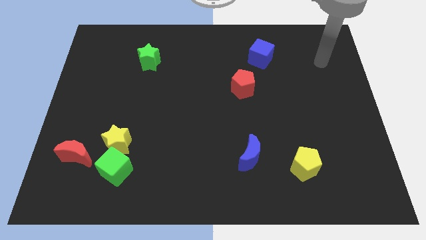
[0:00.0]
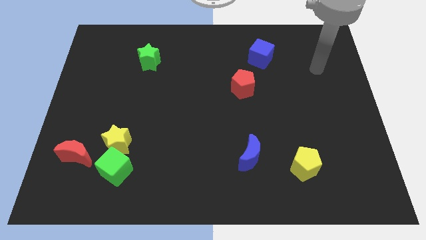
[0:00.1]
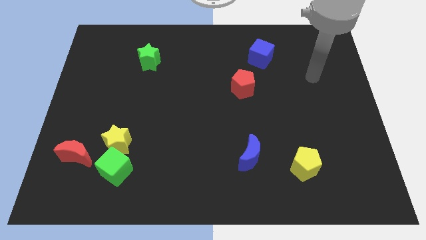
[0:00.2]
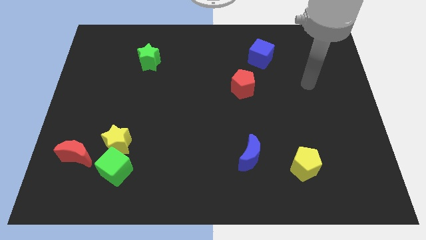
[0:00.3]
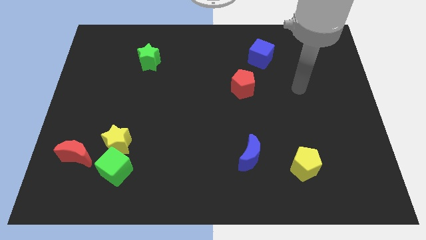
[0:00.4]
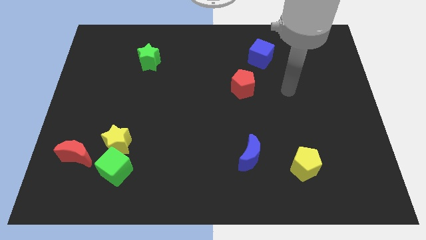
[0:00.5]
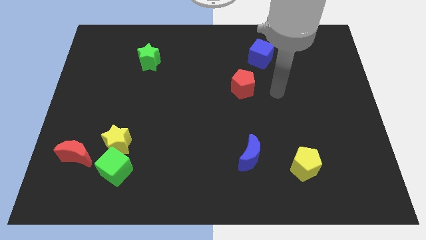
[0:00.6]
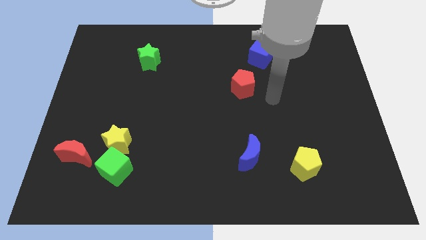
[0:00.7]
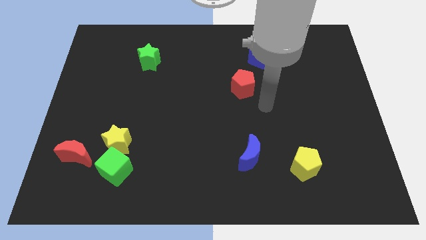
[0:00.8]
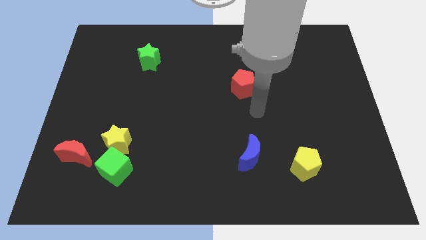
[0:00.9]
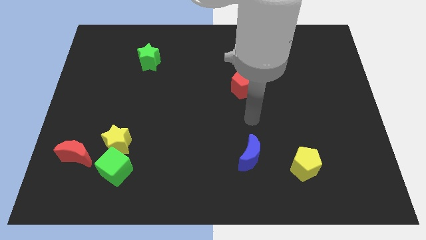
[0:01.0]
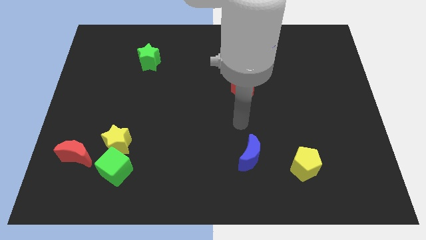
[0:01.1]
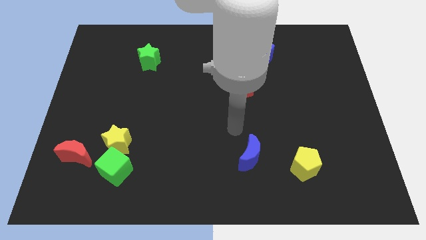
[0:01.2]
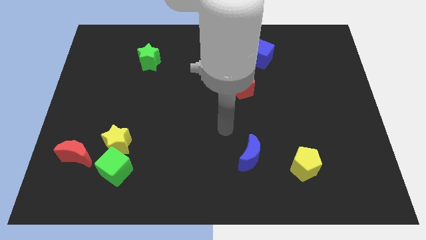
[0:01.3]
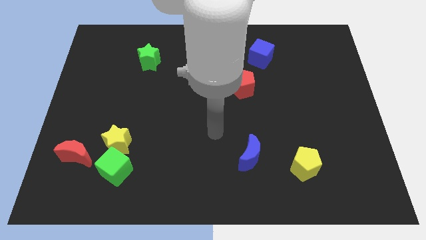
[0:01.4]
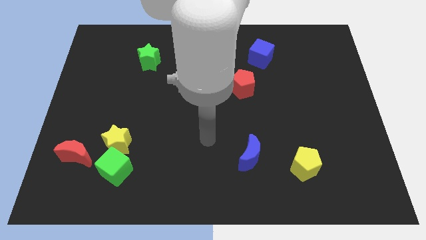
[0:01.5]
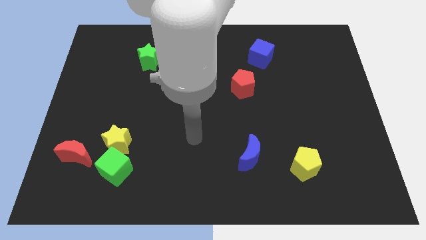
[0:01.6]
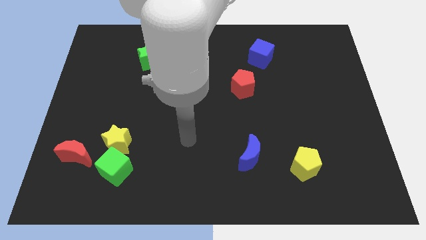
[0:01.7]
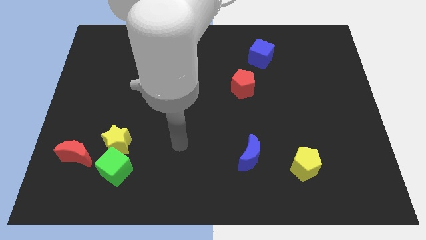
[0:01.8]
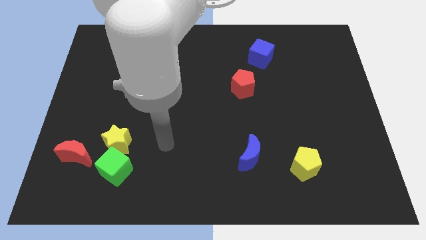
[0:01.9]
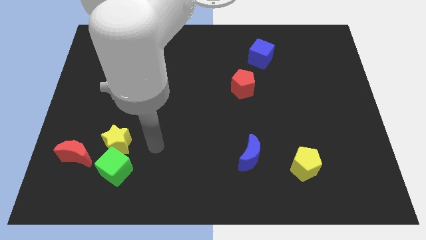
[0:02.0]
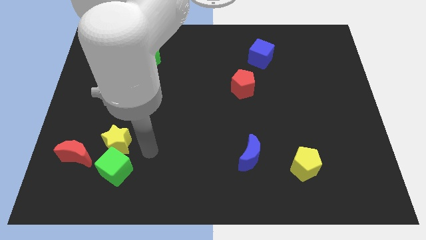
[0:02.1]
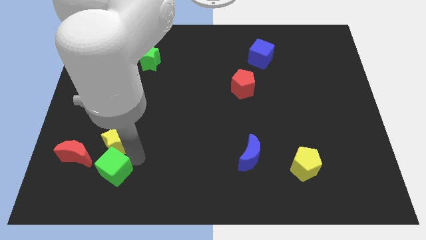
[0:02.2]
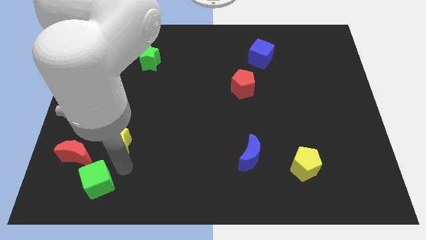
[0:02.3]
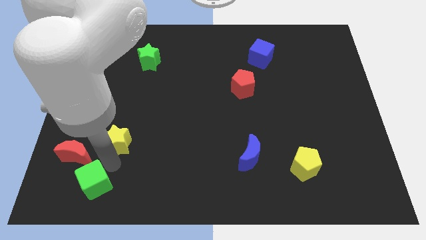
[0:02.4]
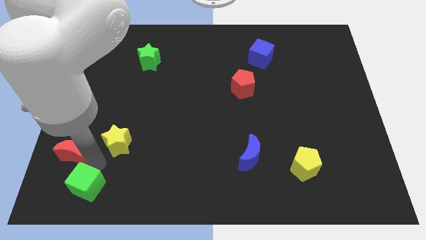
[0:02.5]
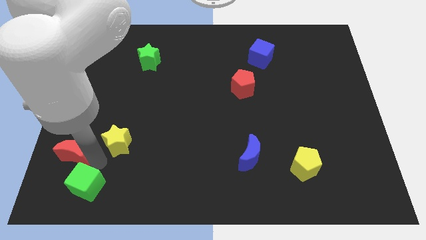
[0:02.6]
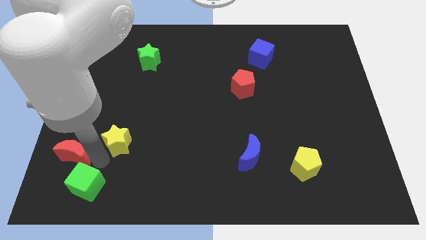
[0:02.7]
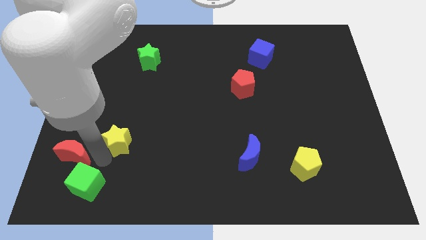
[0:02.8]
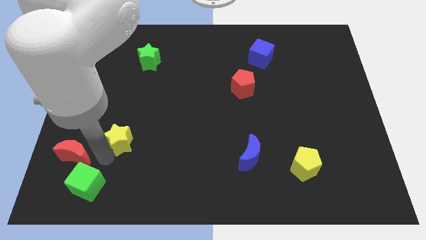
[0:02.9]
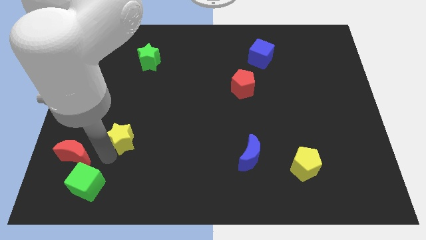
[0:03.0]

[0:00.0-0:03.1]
move the yellow star away from the green cube and red moon

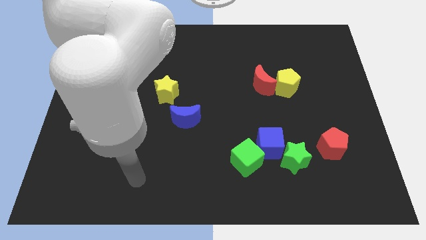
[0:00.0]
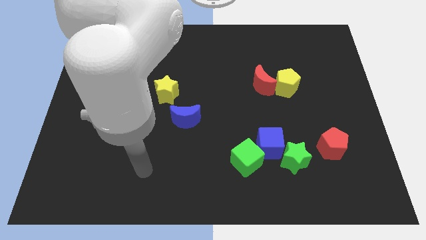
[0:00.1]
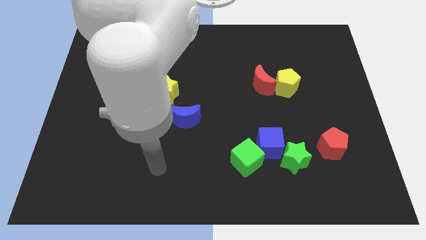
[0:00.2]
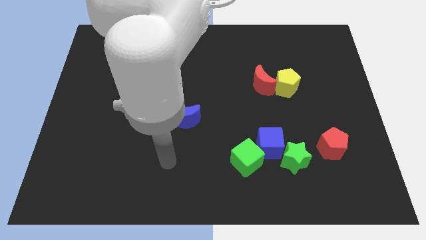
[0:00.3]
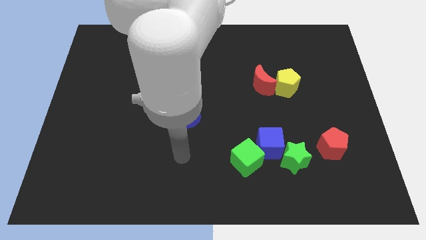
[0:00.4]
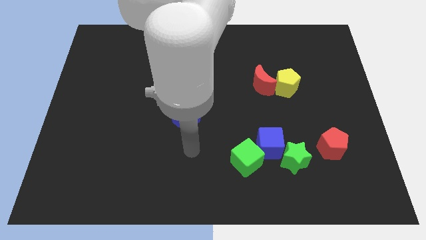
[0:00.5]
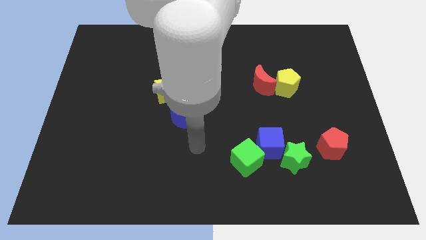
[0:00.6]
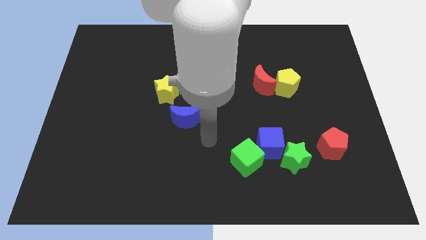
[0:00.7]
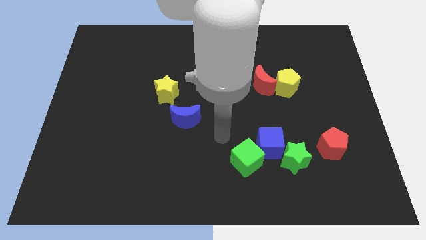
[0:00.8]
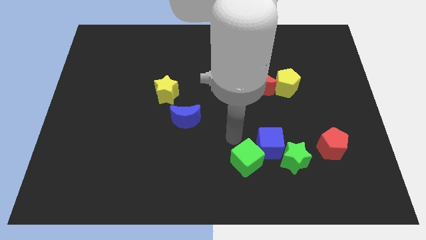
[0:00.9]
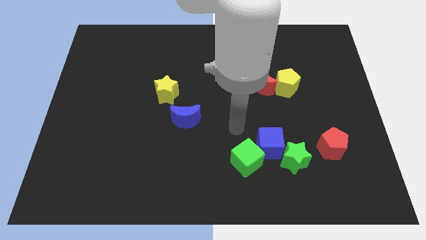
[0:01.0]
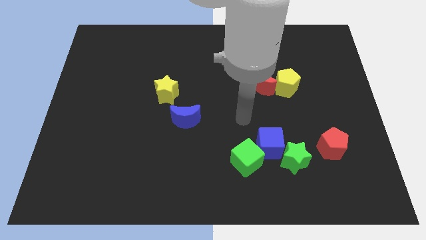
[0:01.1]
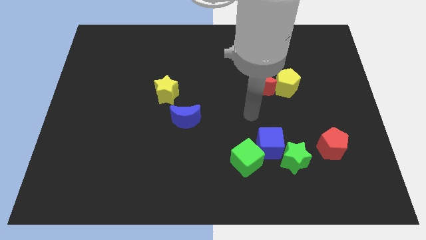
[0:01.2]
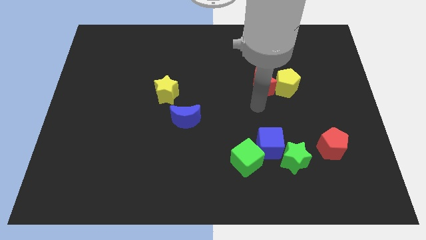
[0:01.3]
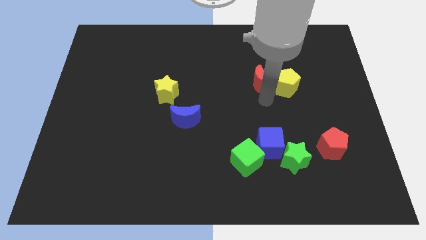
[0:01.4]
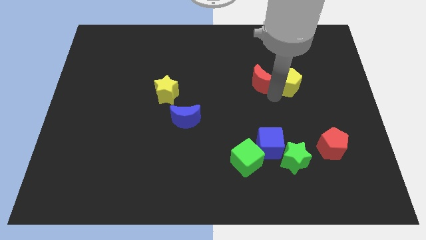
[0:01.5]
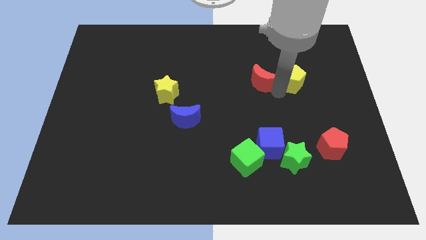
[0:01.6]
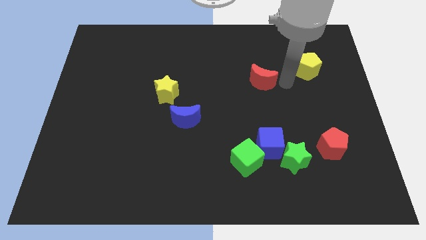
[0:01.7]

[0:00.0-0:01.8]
move the red moon away from the yellow pentagon

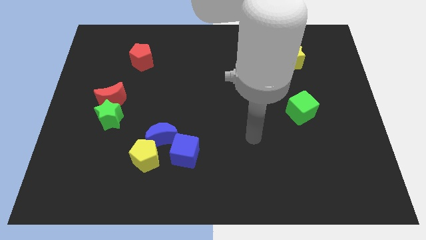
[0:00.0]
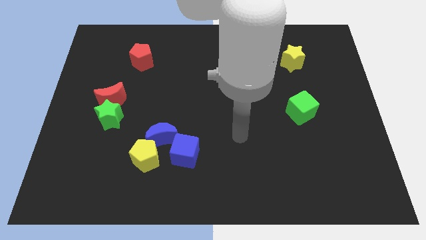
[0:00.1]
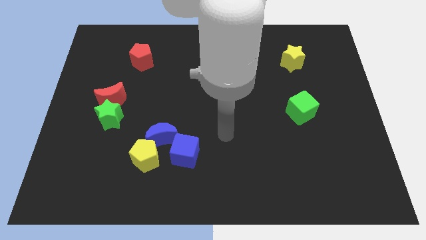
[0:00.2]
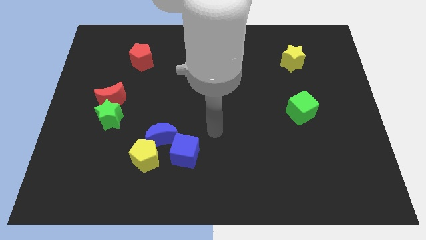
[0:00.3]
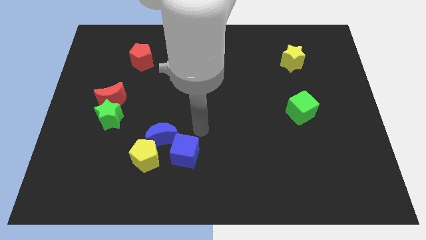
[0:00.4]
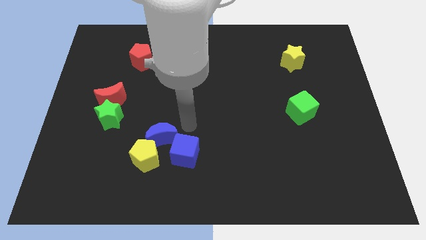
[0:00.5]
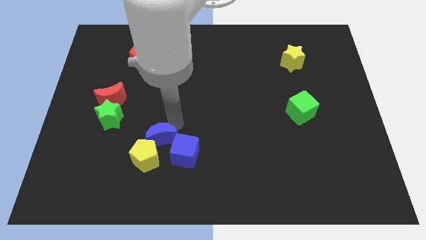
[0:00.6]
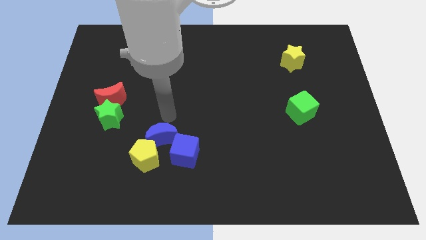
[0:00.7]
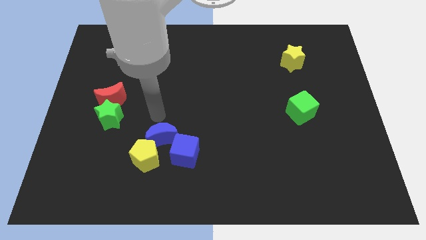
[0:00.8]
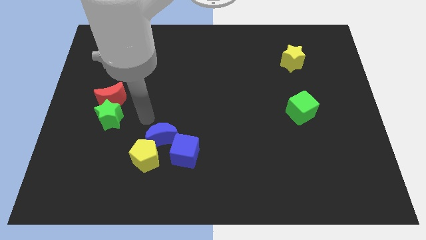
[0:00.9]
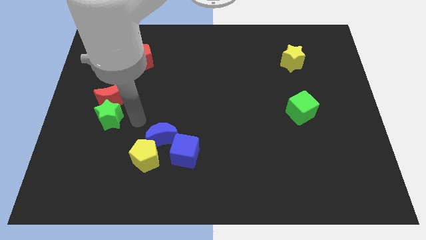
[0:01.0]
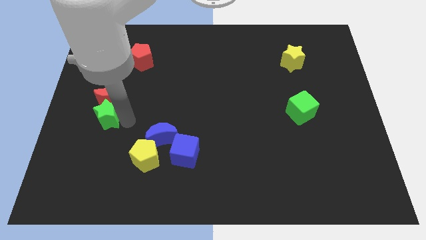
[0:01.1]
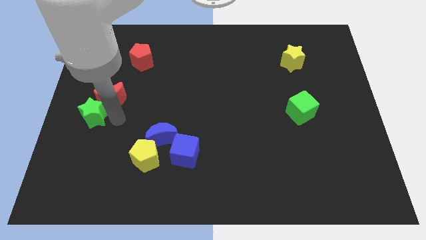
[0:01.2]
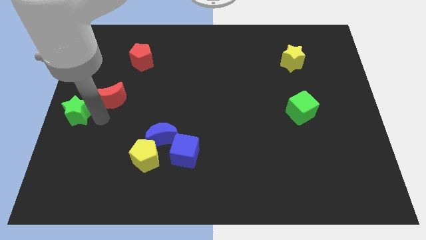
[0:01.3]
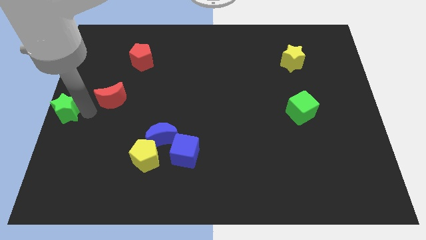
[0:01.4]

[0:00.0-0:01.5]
pull the red moon apart from the green star

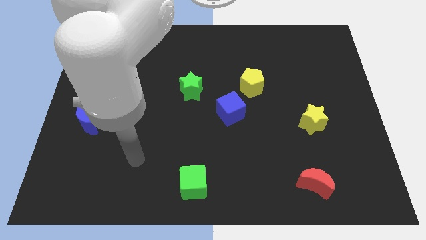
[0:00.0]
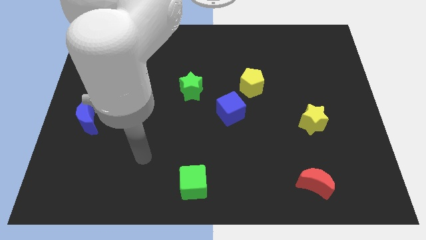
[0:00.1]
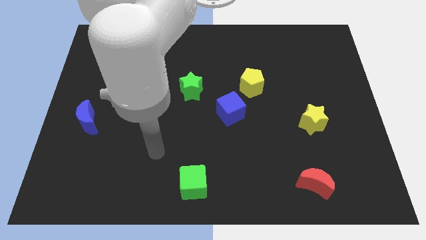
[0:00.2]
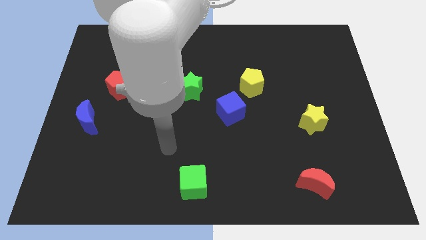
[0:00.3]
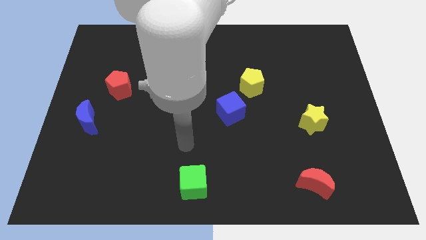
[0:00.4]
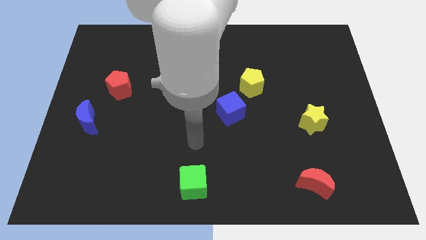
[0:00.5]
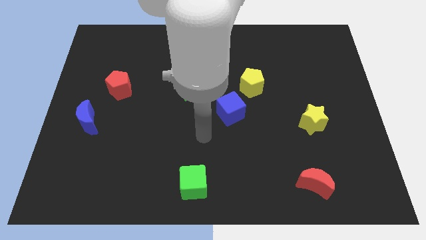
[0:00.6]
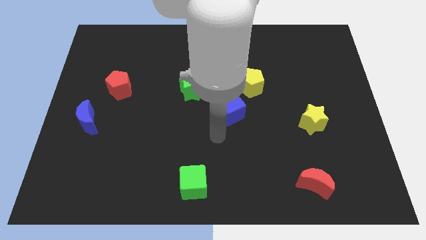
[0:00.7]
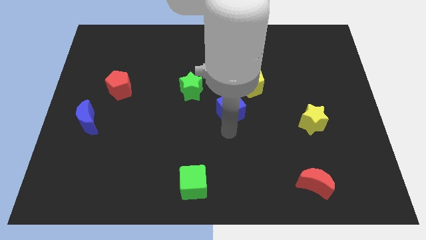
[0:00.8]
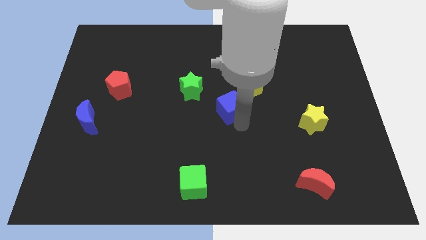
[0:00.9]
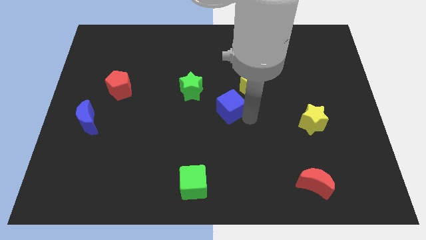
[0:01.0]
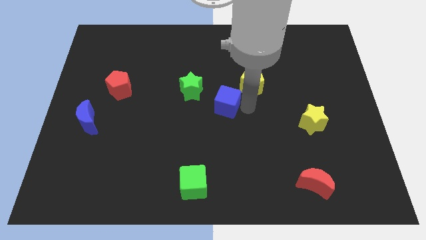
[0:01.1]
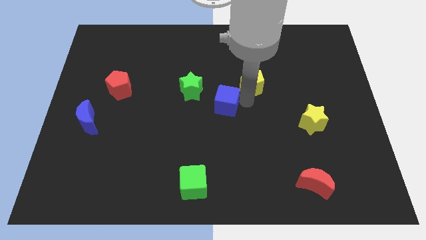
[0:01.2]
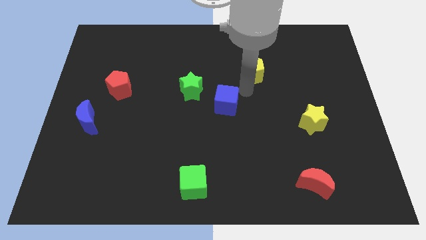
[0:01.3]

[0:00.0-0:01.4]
separate the blue cube from the yellow pentagon

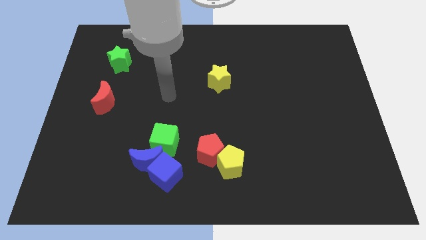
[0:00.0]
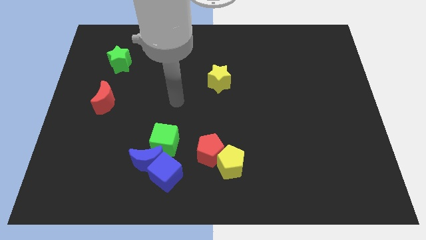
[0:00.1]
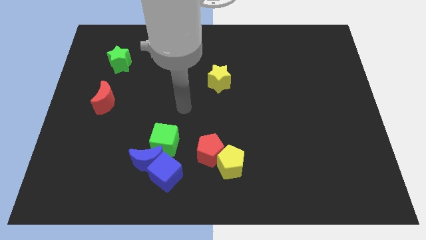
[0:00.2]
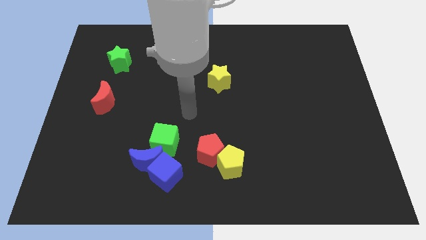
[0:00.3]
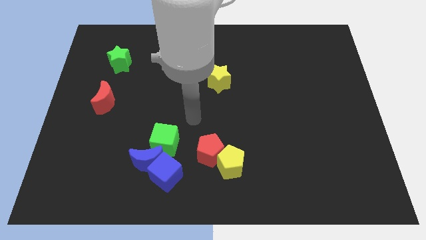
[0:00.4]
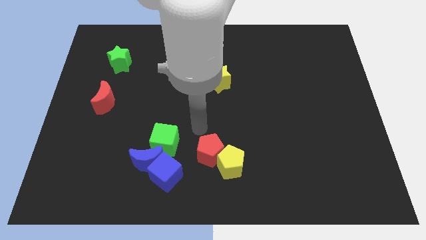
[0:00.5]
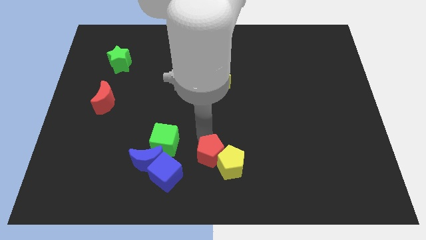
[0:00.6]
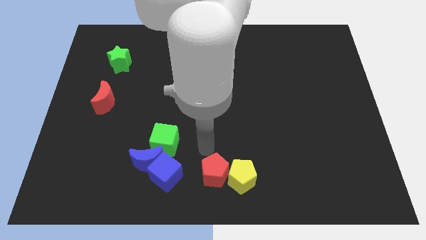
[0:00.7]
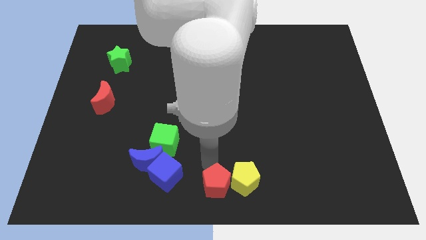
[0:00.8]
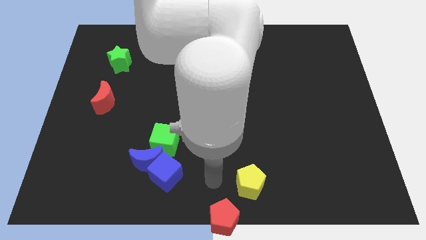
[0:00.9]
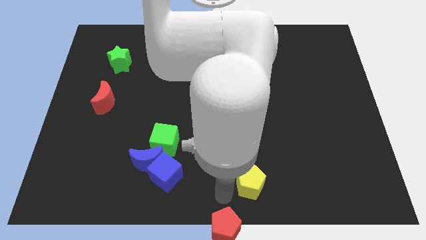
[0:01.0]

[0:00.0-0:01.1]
separate the yellow pentagon from the red pentagon

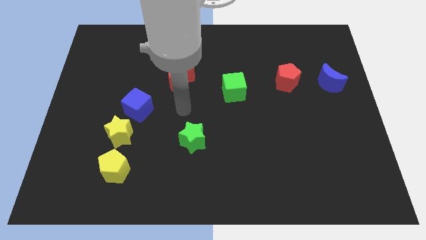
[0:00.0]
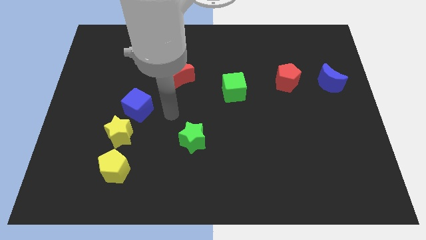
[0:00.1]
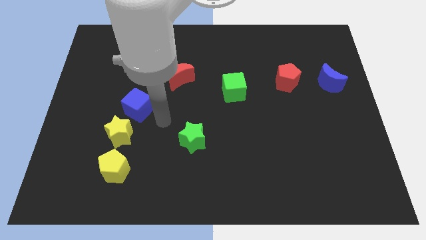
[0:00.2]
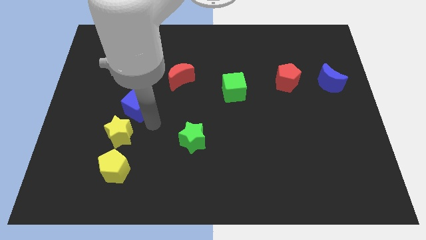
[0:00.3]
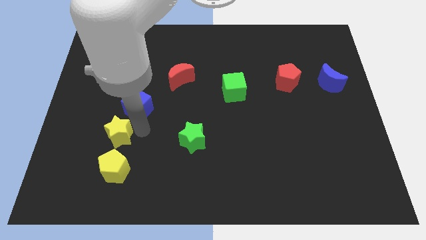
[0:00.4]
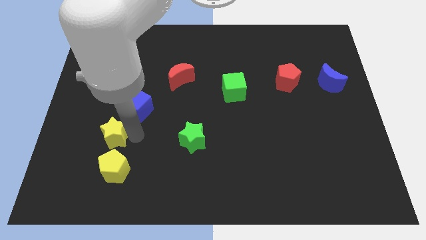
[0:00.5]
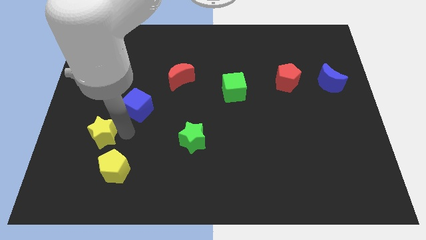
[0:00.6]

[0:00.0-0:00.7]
pull the blue cube apart from the yellow star
